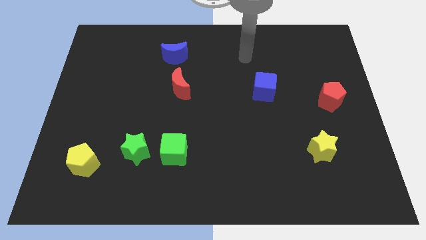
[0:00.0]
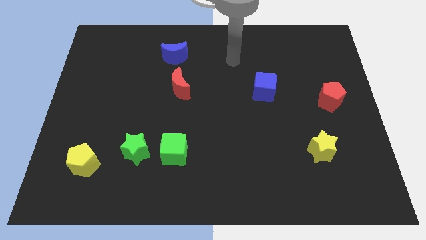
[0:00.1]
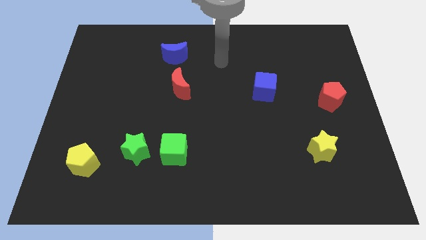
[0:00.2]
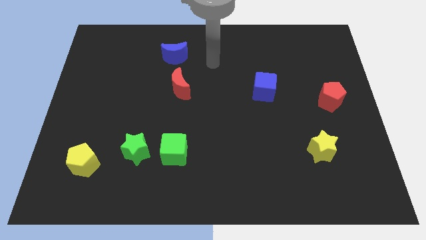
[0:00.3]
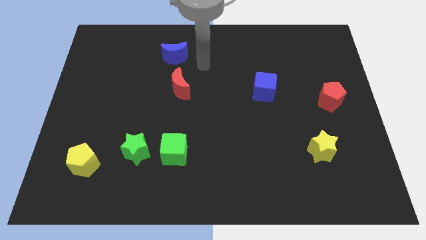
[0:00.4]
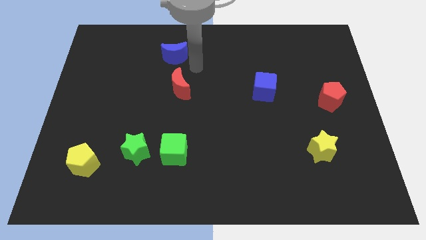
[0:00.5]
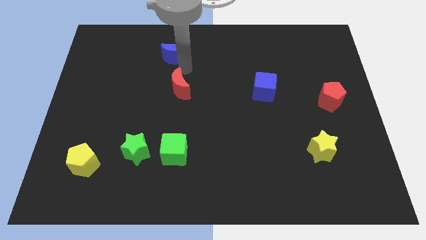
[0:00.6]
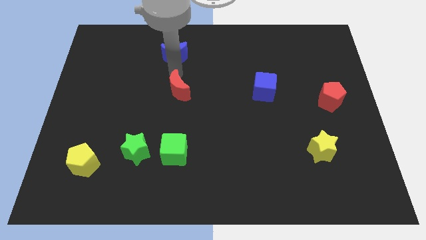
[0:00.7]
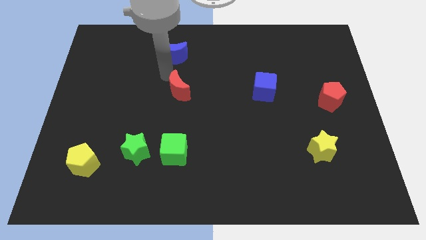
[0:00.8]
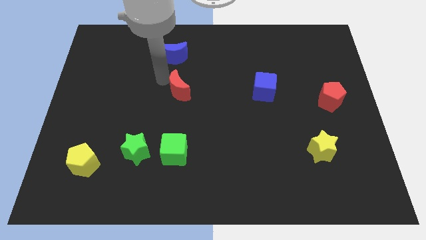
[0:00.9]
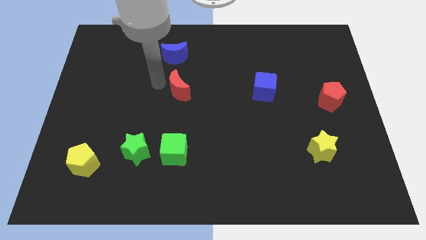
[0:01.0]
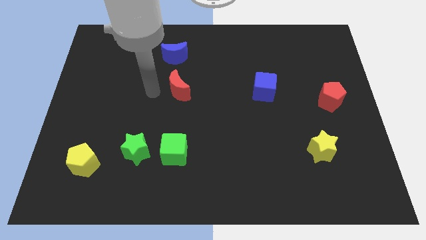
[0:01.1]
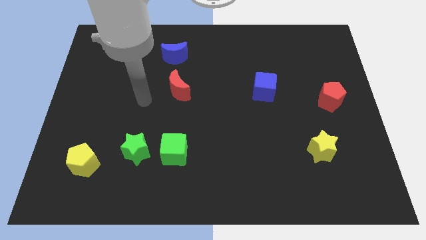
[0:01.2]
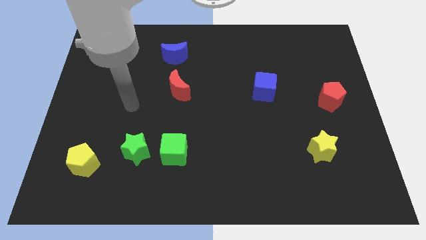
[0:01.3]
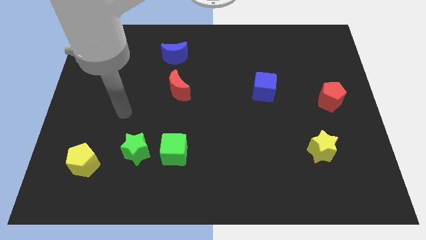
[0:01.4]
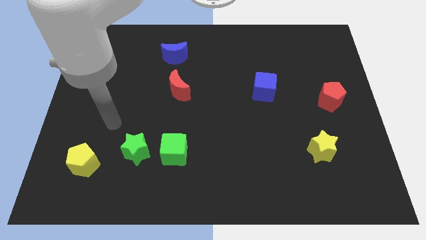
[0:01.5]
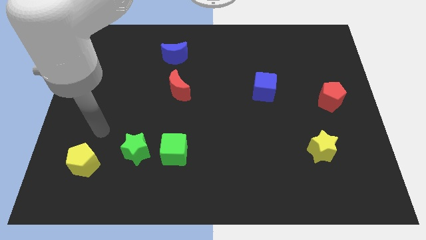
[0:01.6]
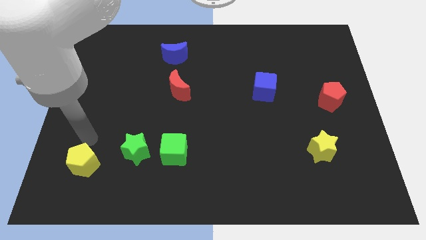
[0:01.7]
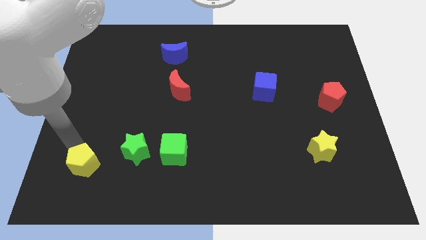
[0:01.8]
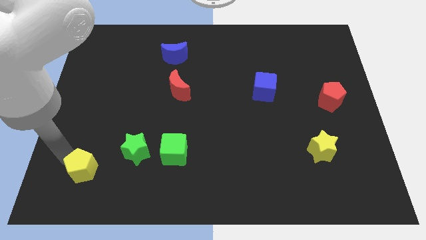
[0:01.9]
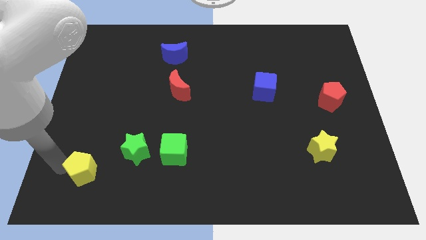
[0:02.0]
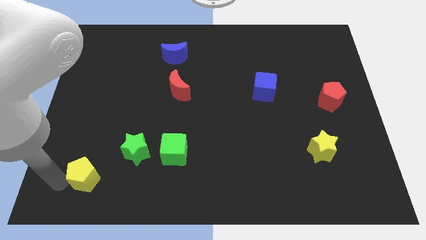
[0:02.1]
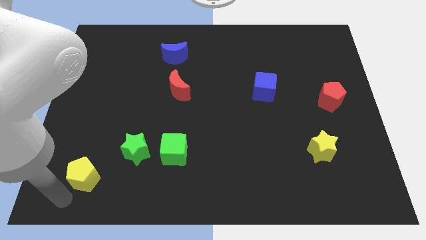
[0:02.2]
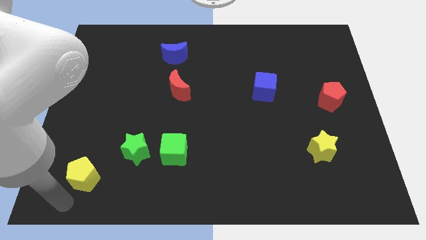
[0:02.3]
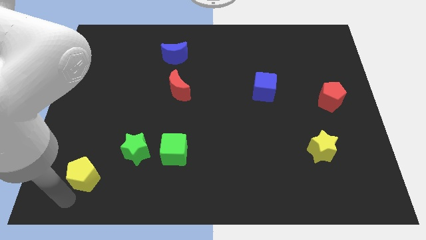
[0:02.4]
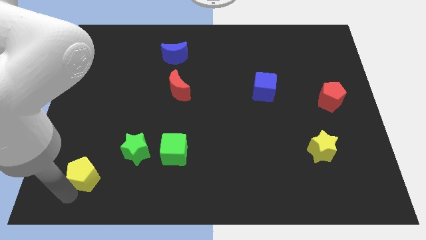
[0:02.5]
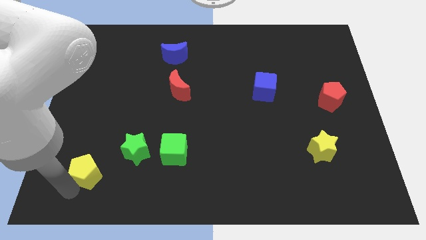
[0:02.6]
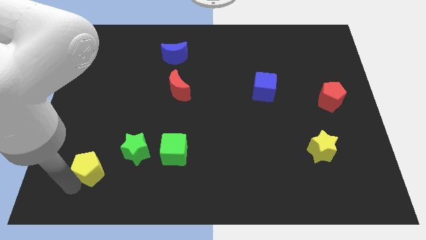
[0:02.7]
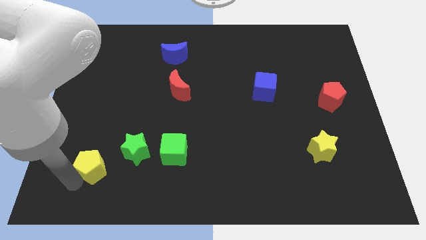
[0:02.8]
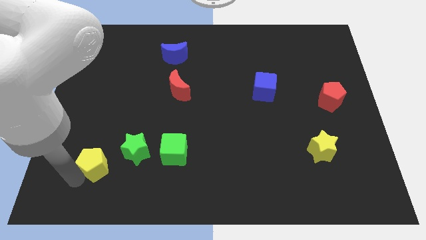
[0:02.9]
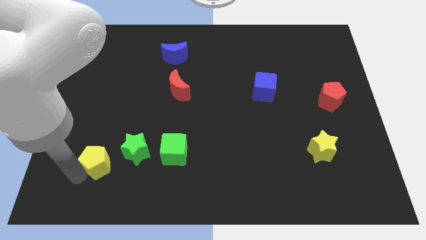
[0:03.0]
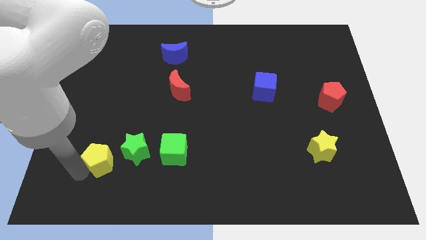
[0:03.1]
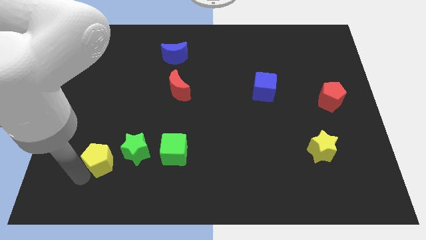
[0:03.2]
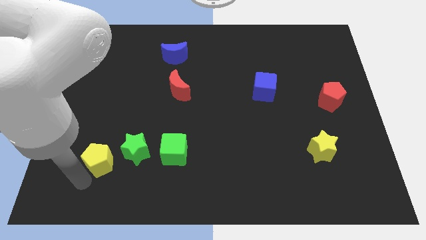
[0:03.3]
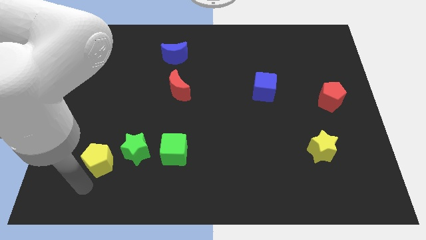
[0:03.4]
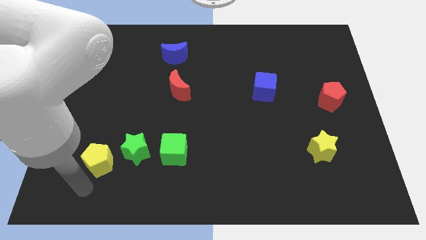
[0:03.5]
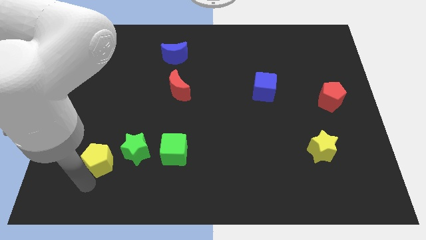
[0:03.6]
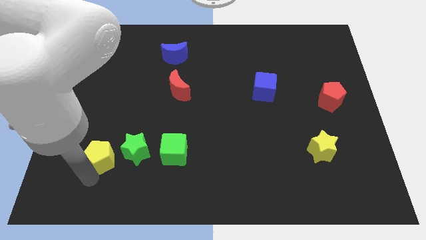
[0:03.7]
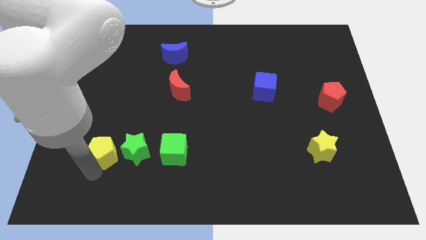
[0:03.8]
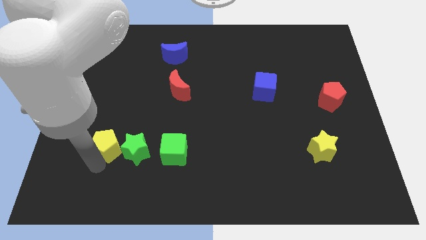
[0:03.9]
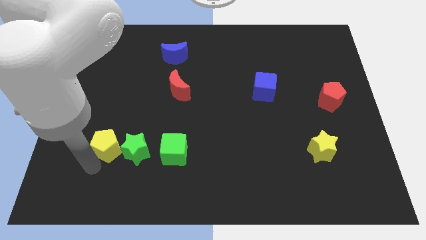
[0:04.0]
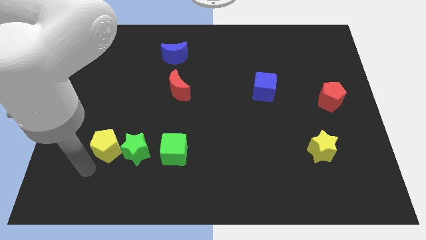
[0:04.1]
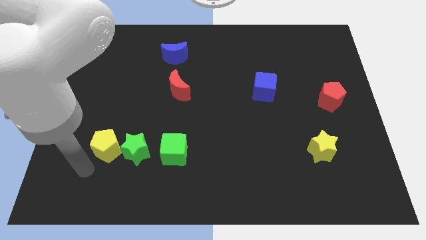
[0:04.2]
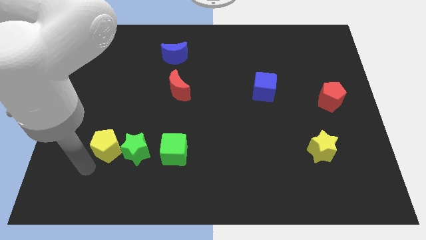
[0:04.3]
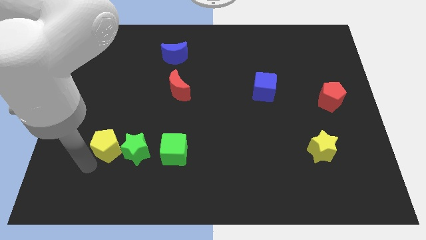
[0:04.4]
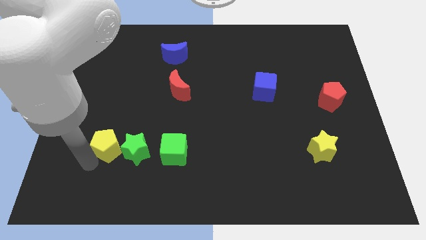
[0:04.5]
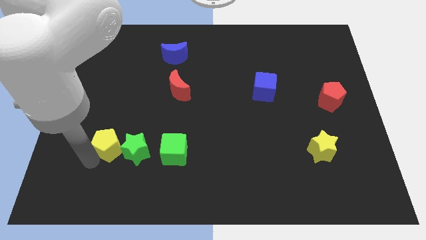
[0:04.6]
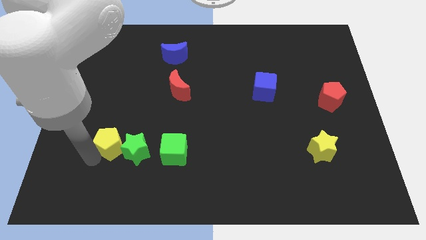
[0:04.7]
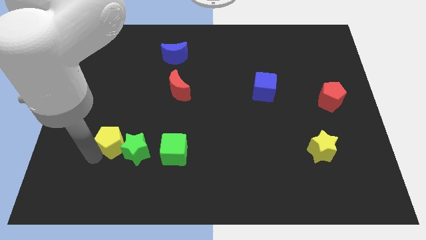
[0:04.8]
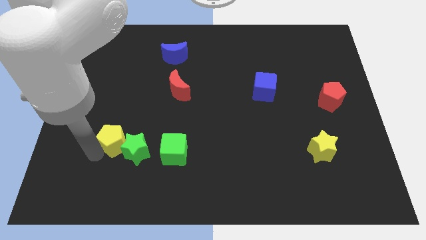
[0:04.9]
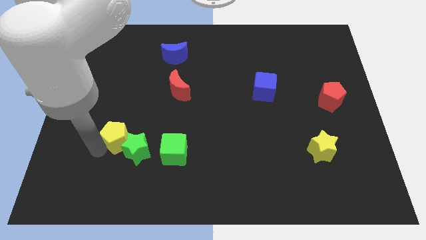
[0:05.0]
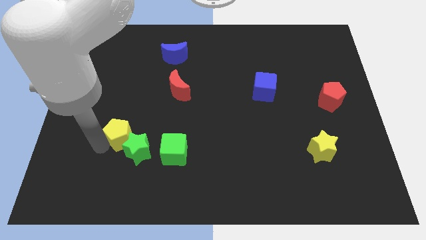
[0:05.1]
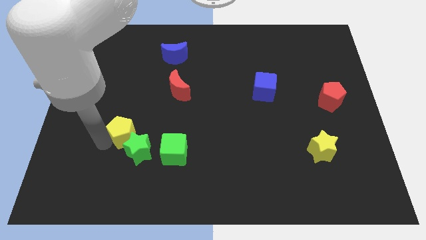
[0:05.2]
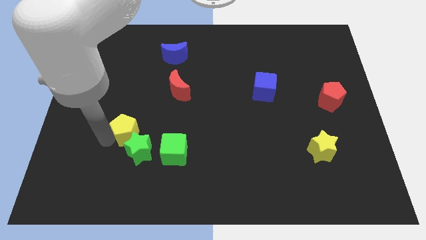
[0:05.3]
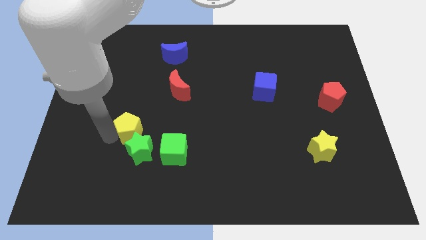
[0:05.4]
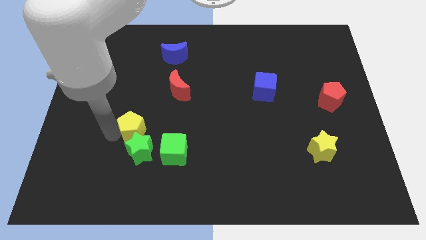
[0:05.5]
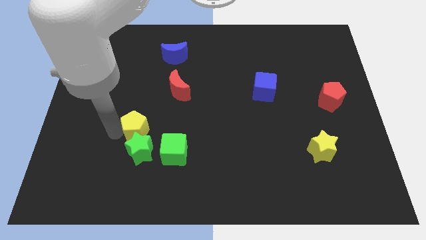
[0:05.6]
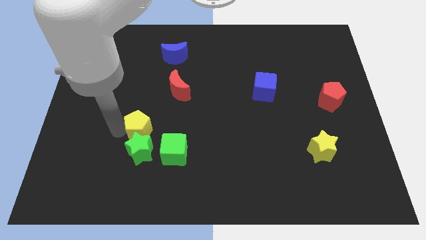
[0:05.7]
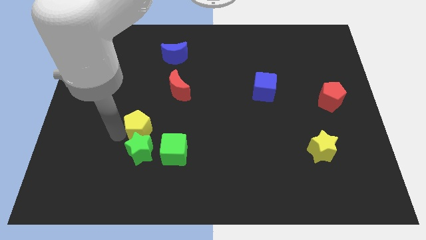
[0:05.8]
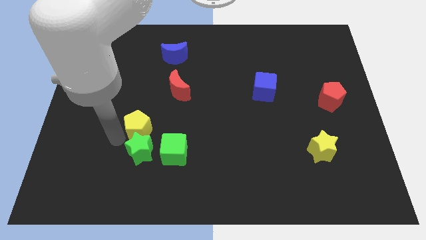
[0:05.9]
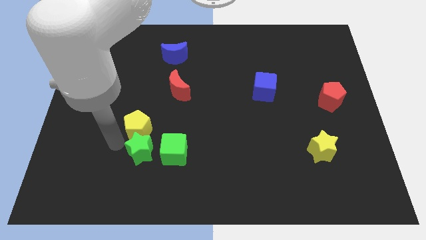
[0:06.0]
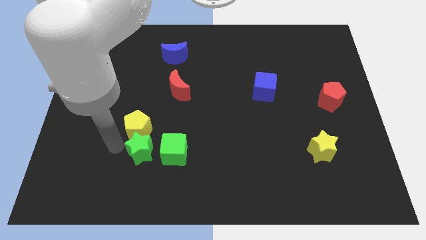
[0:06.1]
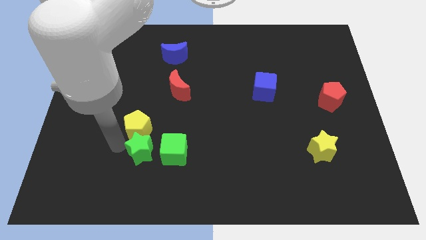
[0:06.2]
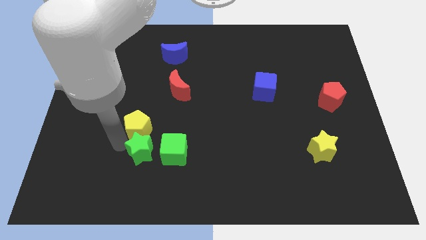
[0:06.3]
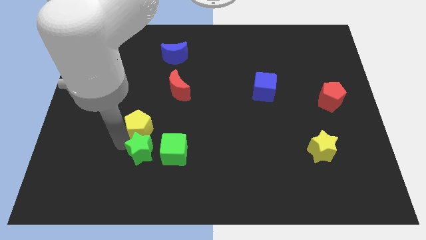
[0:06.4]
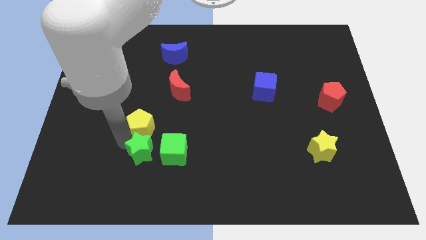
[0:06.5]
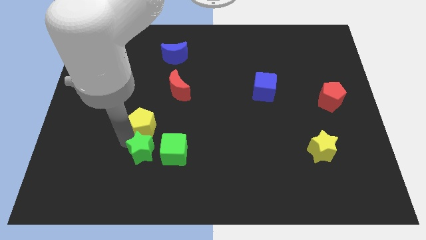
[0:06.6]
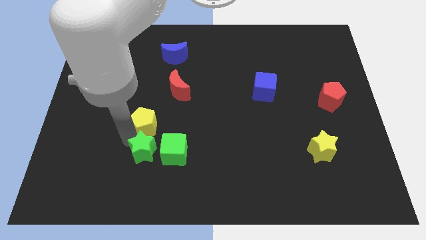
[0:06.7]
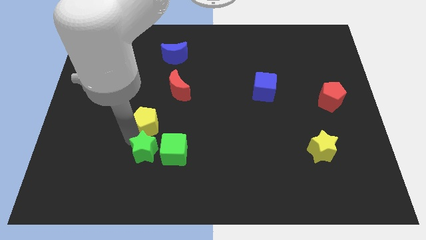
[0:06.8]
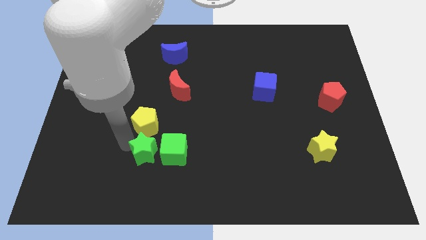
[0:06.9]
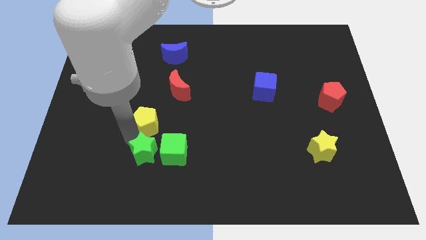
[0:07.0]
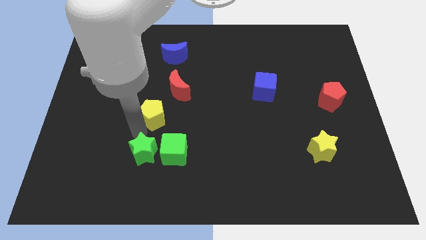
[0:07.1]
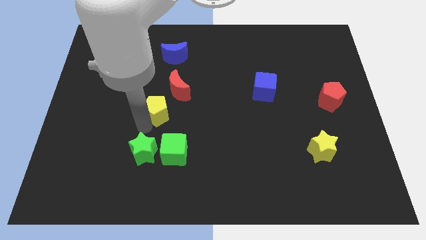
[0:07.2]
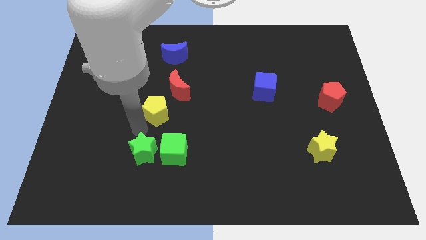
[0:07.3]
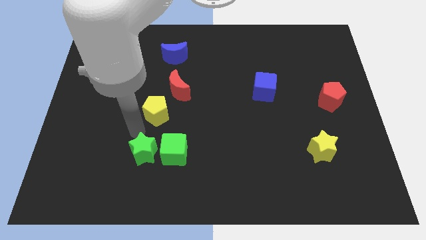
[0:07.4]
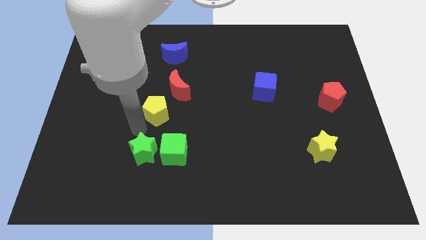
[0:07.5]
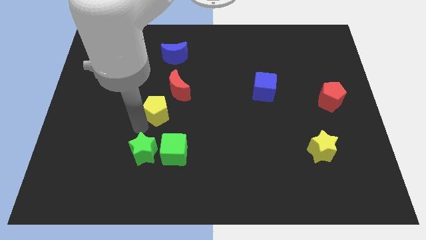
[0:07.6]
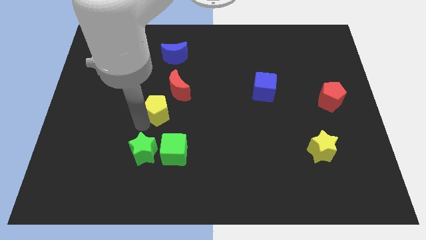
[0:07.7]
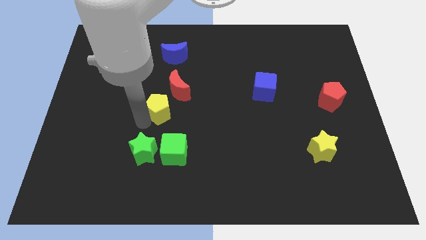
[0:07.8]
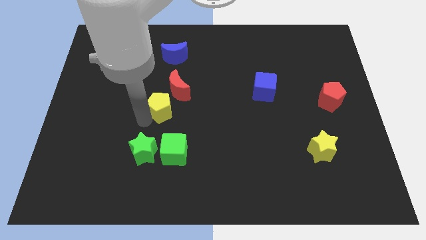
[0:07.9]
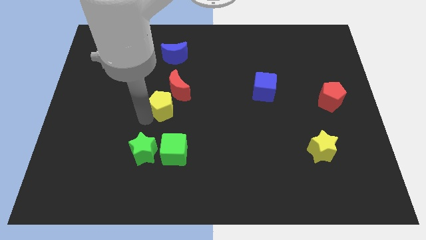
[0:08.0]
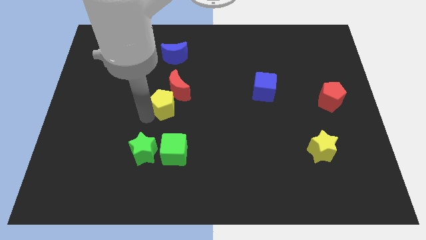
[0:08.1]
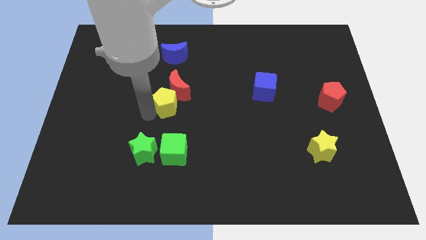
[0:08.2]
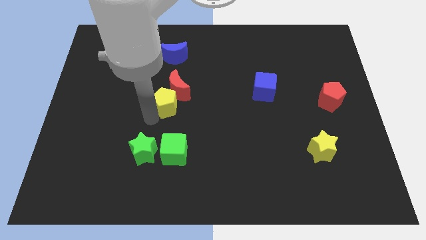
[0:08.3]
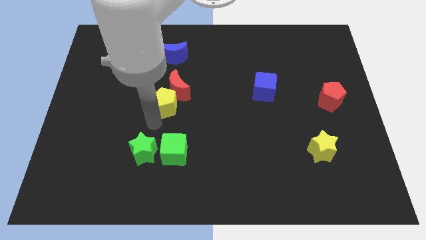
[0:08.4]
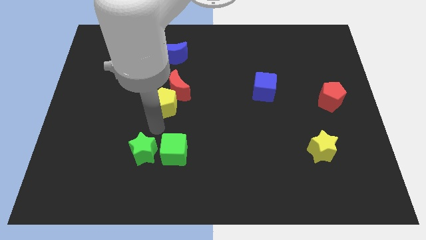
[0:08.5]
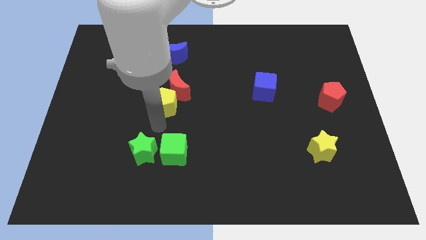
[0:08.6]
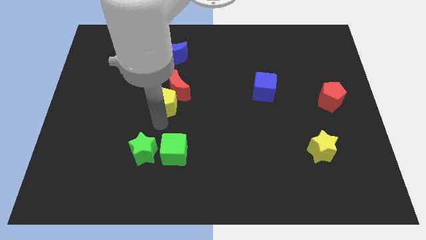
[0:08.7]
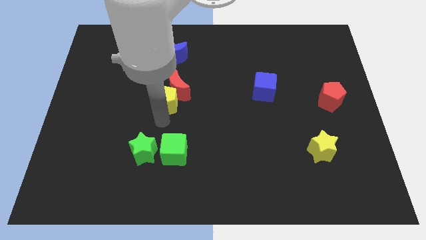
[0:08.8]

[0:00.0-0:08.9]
slide the yellow pentagon below the blue moon
